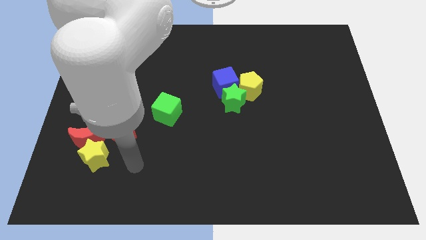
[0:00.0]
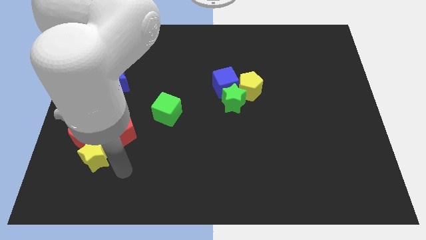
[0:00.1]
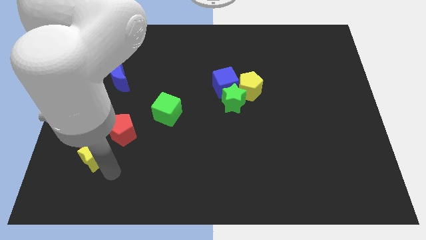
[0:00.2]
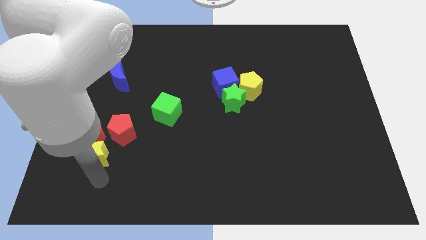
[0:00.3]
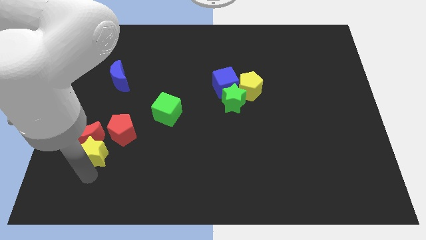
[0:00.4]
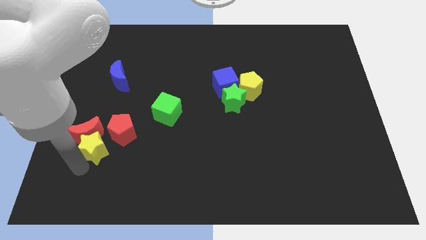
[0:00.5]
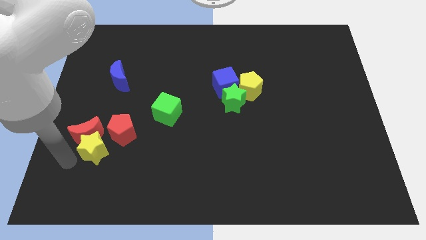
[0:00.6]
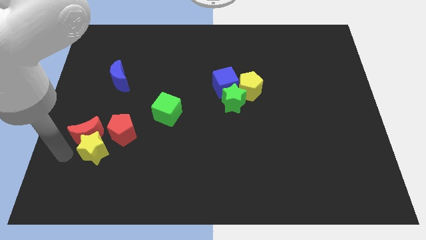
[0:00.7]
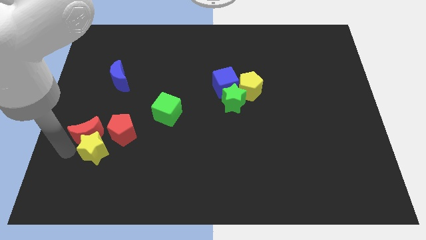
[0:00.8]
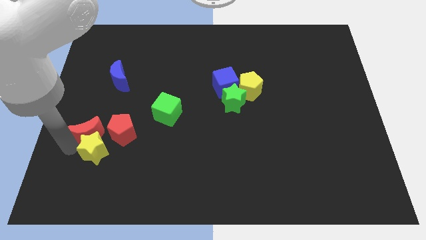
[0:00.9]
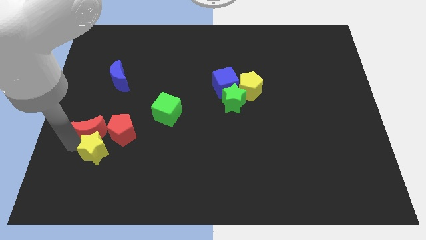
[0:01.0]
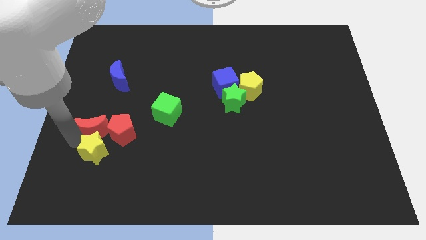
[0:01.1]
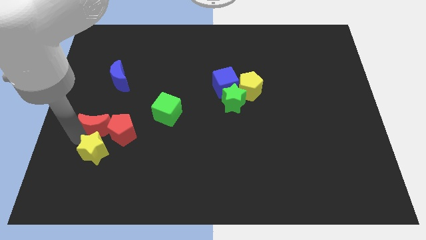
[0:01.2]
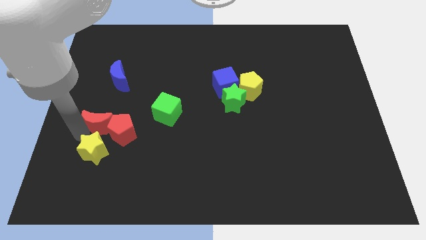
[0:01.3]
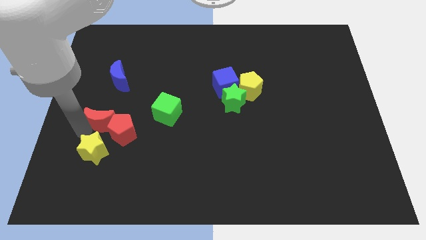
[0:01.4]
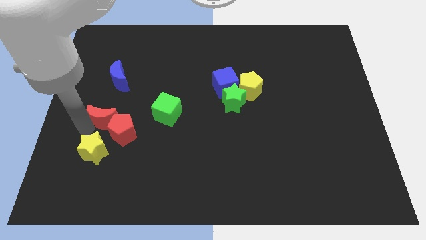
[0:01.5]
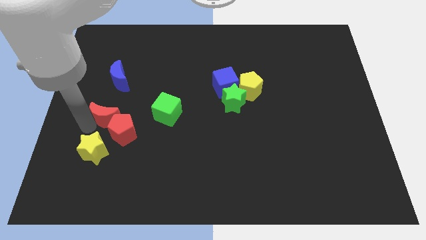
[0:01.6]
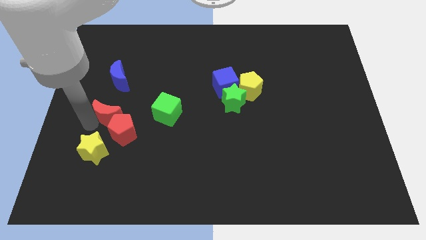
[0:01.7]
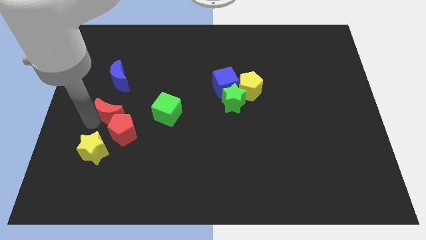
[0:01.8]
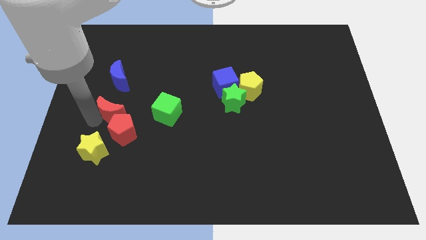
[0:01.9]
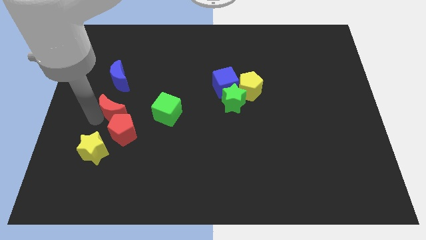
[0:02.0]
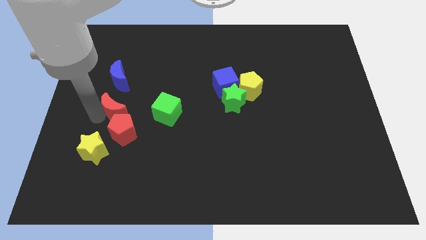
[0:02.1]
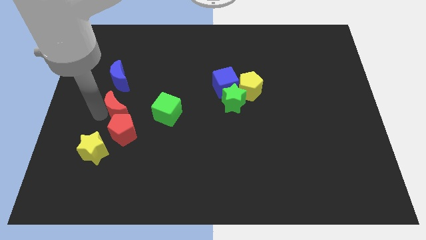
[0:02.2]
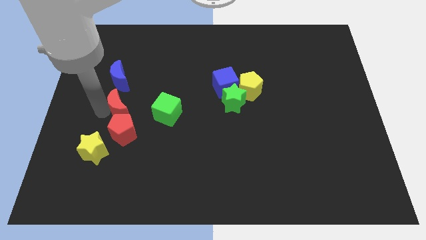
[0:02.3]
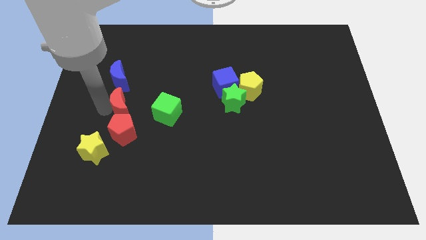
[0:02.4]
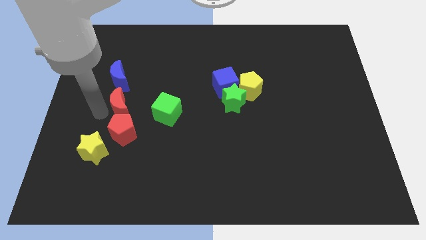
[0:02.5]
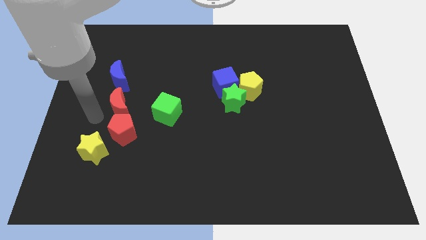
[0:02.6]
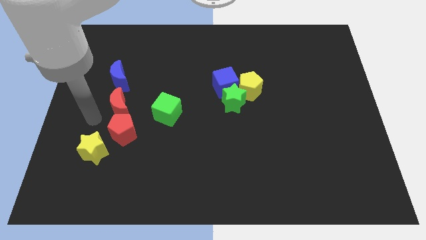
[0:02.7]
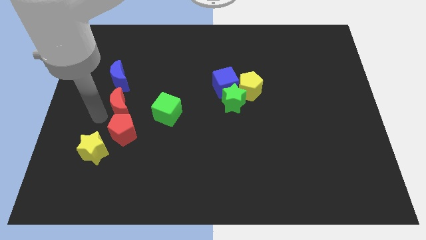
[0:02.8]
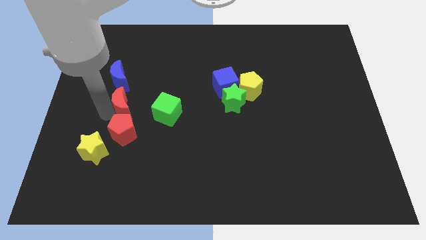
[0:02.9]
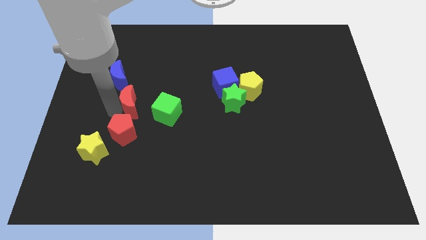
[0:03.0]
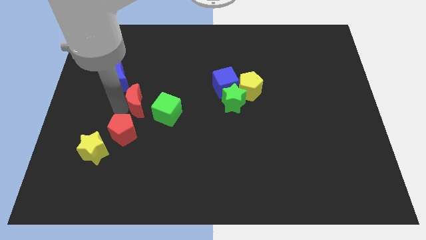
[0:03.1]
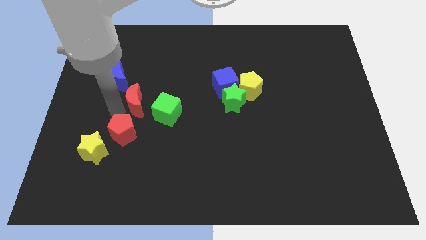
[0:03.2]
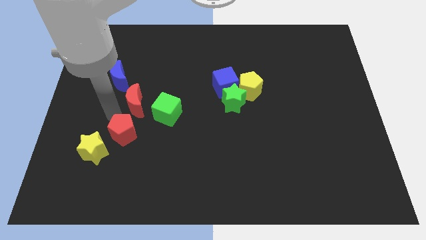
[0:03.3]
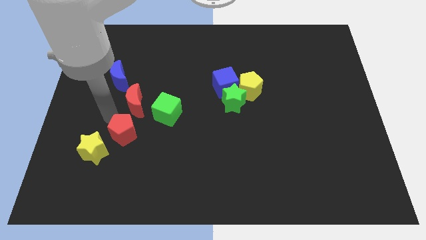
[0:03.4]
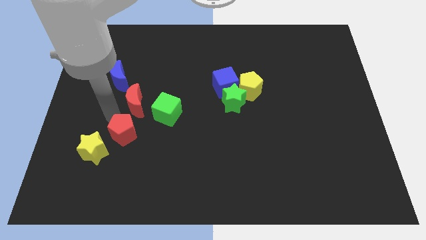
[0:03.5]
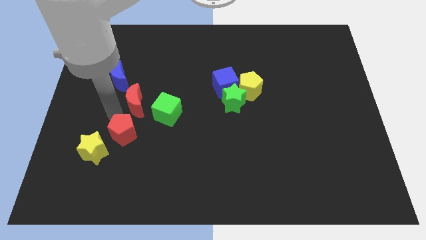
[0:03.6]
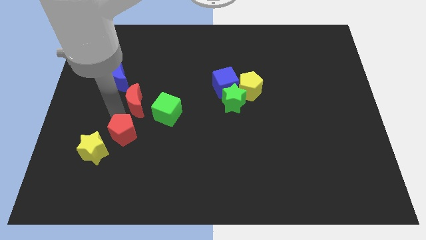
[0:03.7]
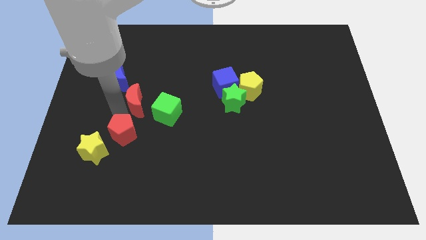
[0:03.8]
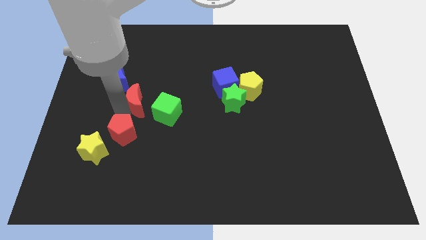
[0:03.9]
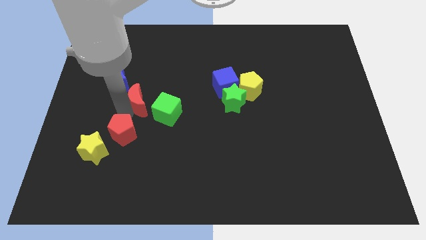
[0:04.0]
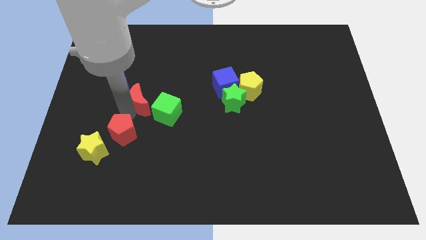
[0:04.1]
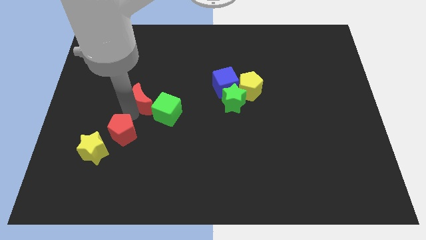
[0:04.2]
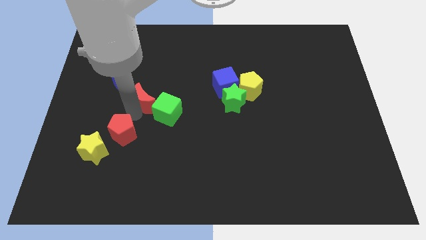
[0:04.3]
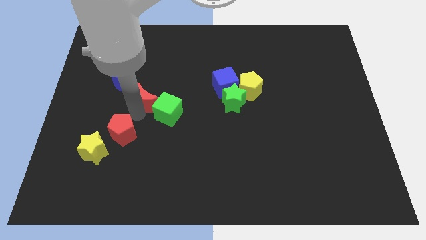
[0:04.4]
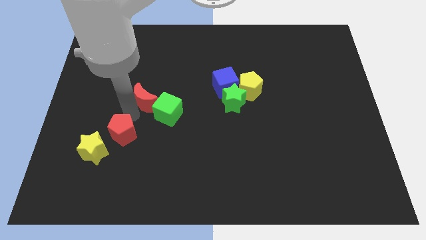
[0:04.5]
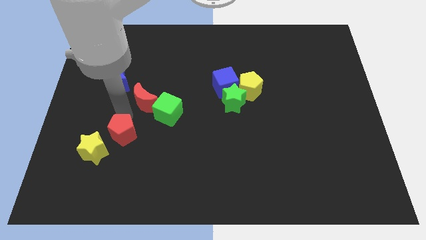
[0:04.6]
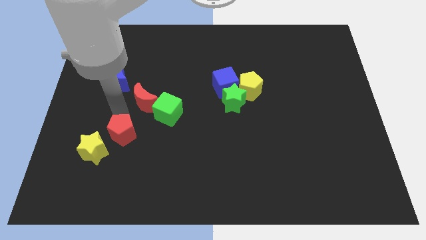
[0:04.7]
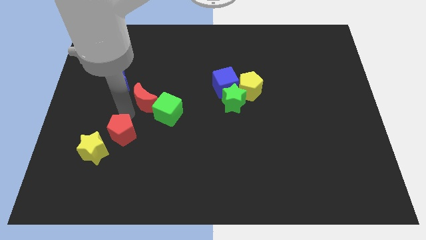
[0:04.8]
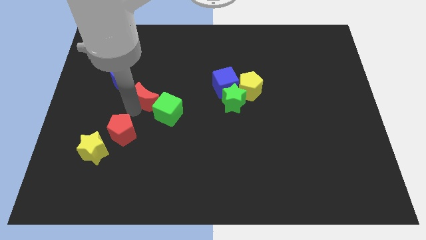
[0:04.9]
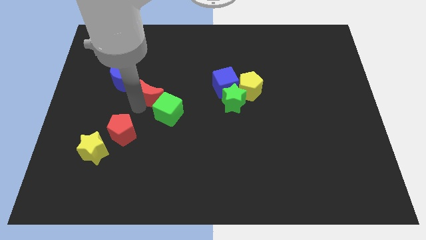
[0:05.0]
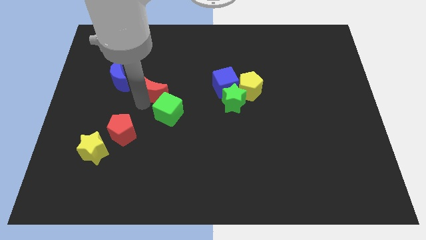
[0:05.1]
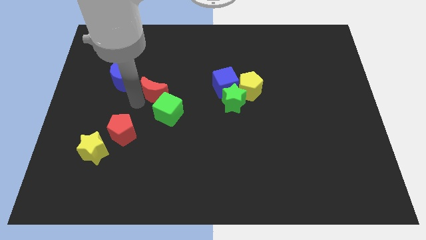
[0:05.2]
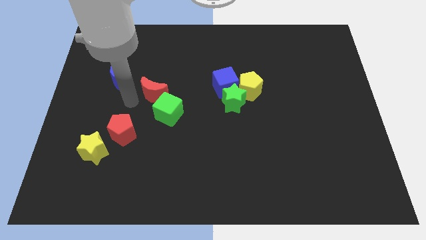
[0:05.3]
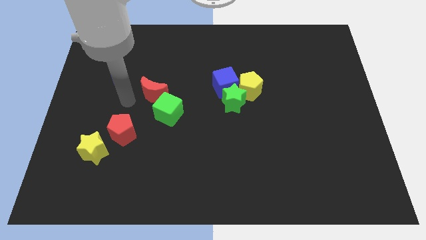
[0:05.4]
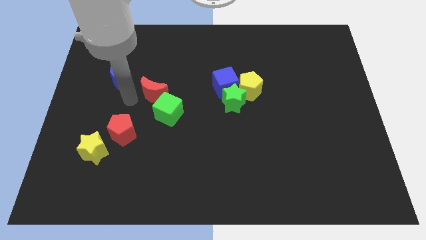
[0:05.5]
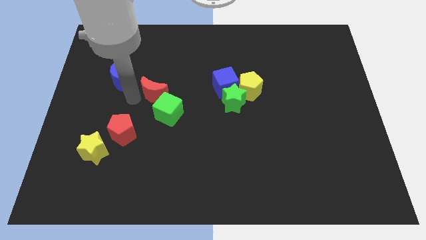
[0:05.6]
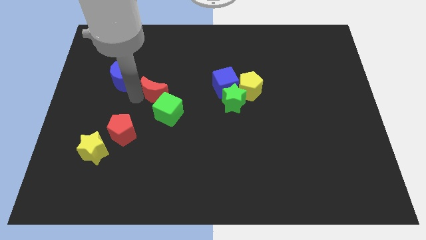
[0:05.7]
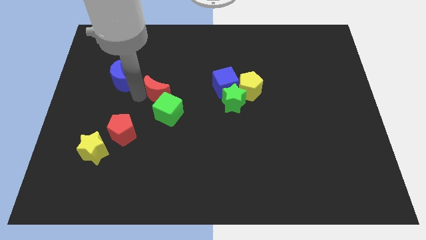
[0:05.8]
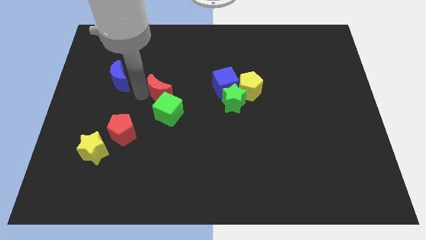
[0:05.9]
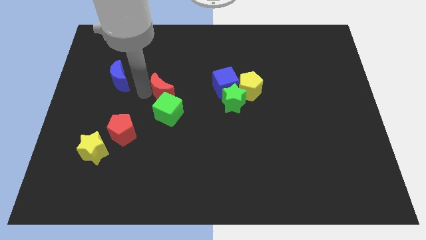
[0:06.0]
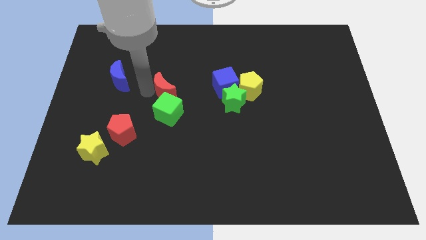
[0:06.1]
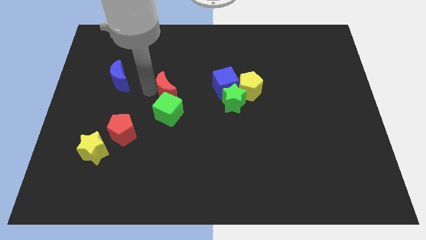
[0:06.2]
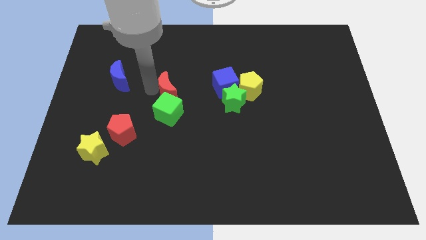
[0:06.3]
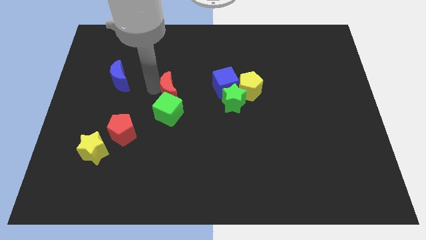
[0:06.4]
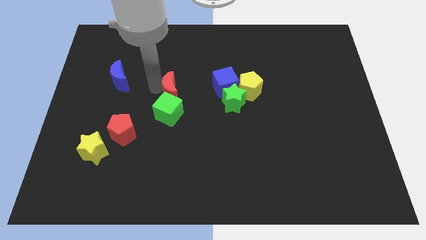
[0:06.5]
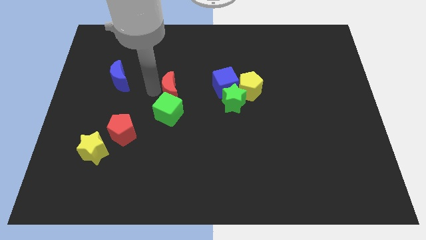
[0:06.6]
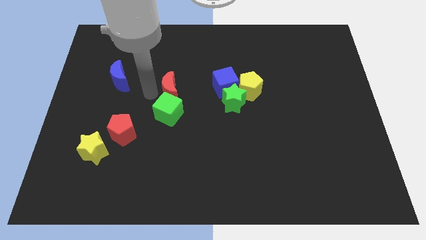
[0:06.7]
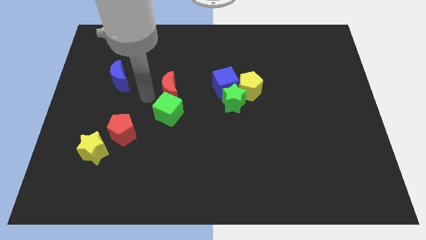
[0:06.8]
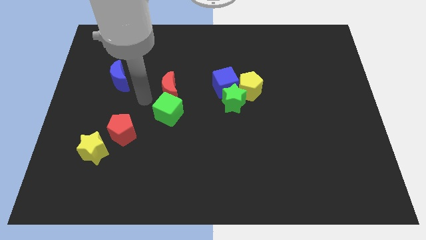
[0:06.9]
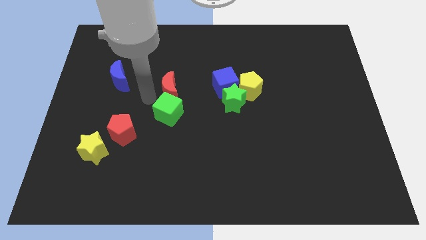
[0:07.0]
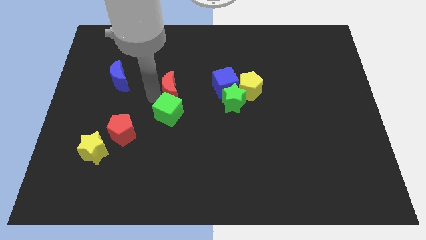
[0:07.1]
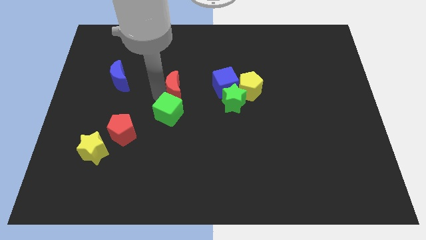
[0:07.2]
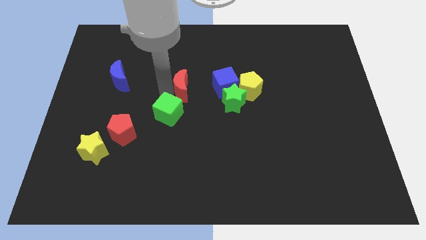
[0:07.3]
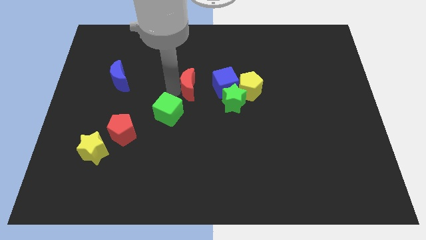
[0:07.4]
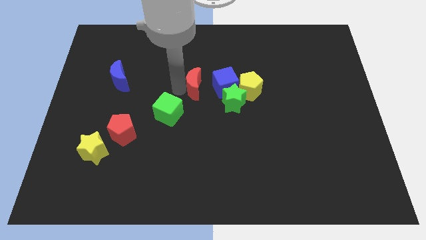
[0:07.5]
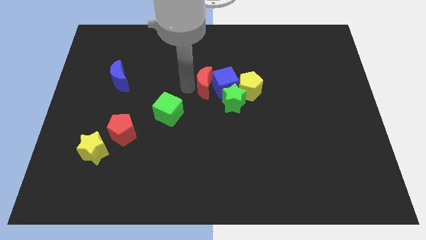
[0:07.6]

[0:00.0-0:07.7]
put the red moon close to the blue cube
